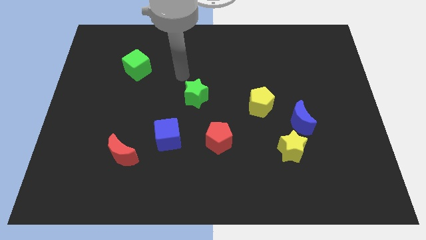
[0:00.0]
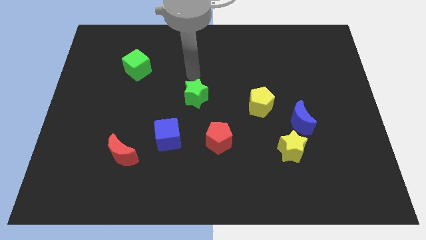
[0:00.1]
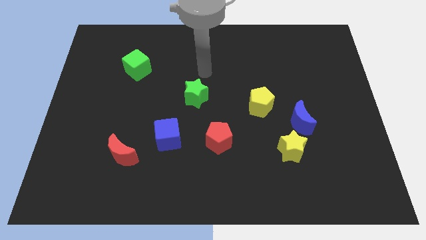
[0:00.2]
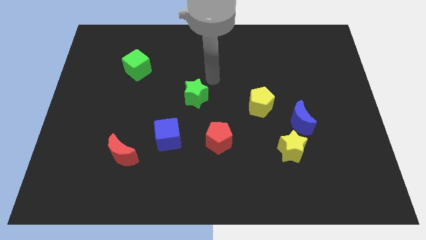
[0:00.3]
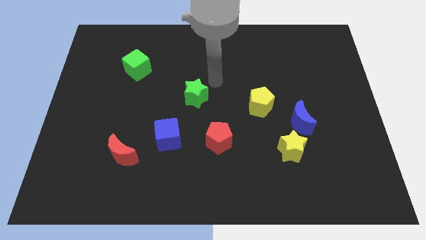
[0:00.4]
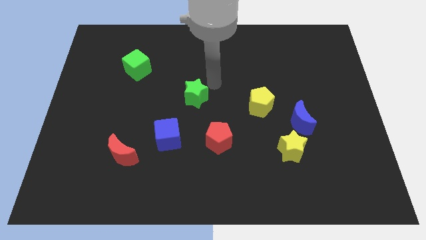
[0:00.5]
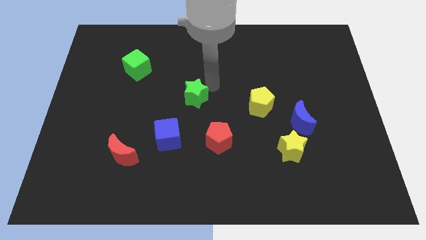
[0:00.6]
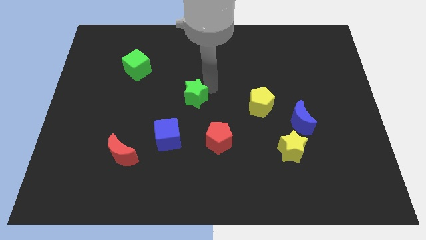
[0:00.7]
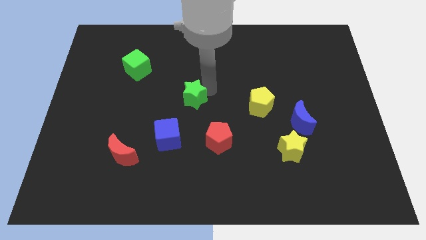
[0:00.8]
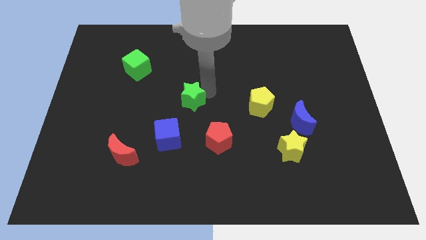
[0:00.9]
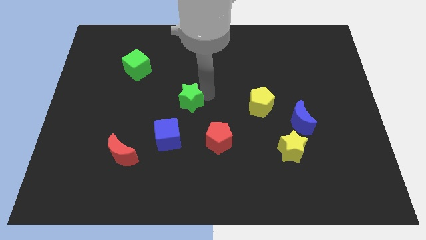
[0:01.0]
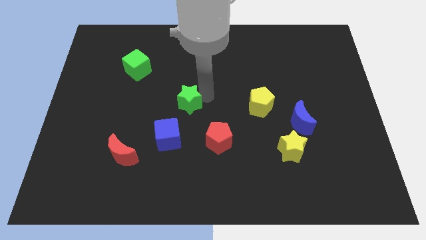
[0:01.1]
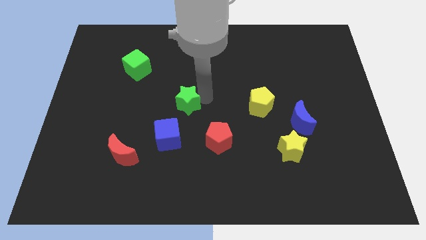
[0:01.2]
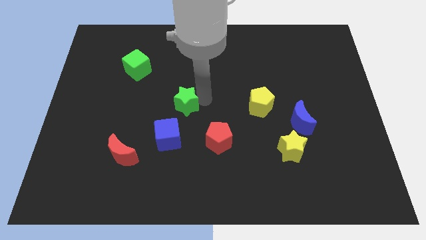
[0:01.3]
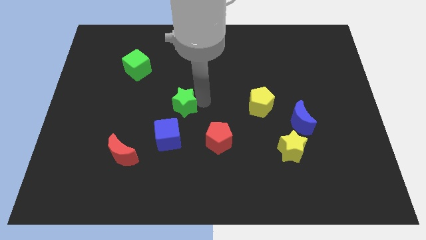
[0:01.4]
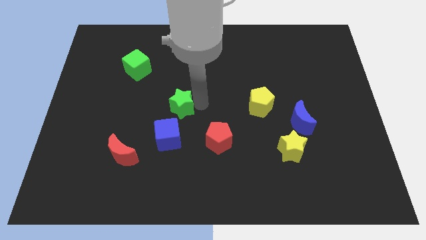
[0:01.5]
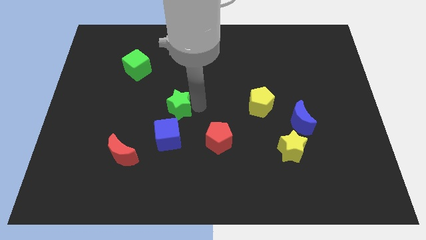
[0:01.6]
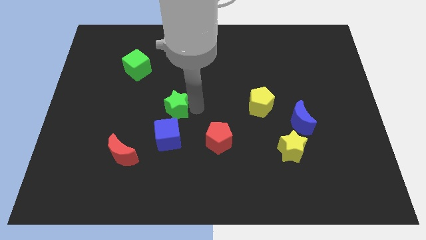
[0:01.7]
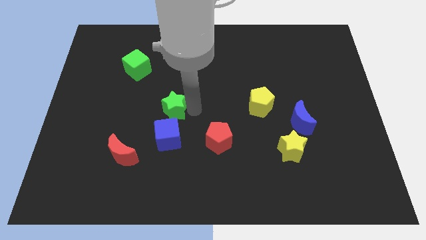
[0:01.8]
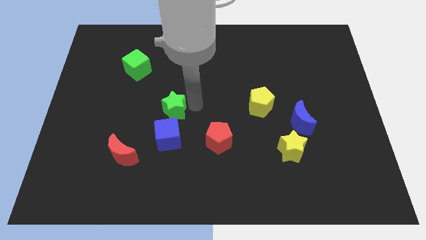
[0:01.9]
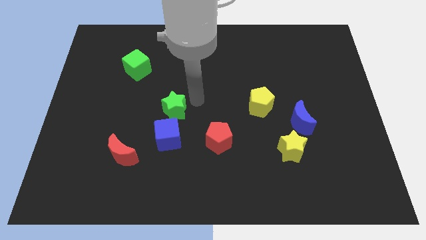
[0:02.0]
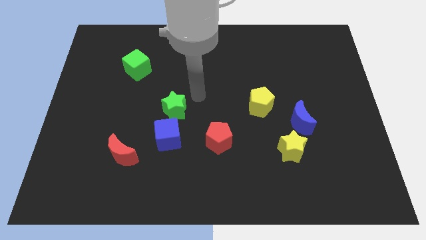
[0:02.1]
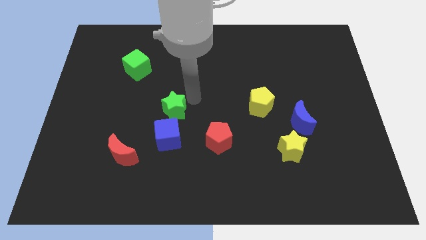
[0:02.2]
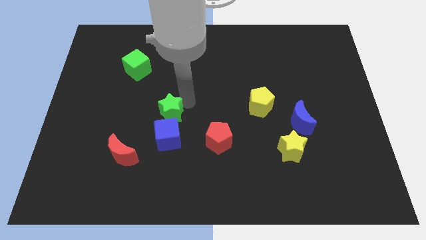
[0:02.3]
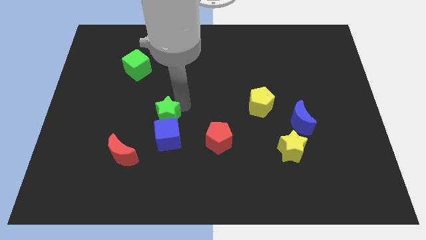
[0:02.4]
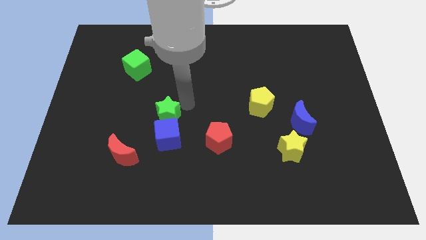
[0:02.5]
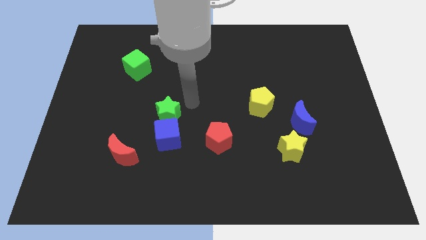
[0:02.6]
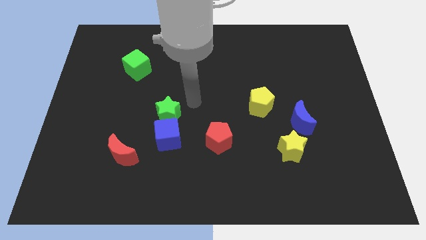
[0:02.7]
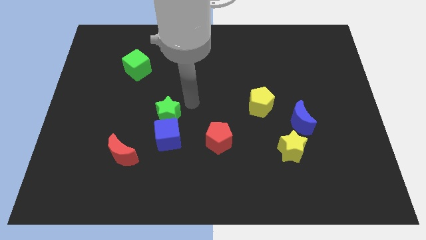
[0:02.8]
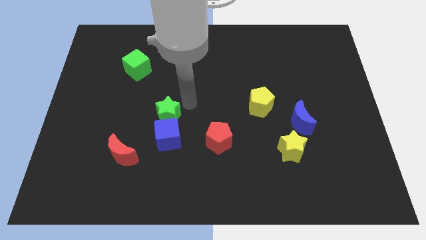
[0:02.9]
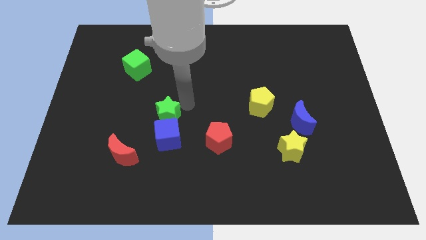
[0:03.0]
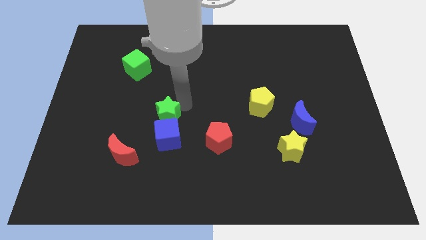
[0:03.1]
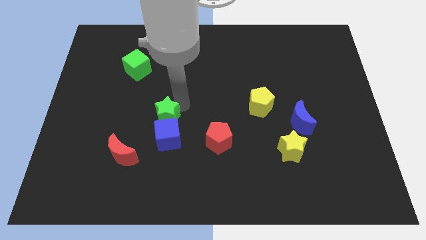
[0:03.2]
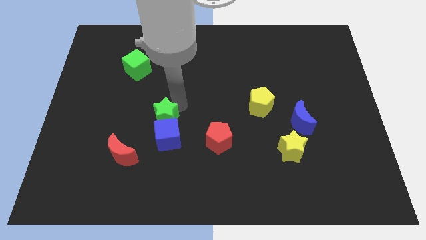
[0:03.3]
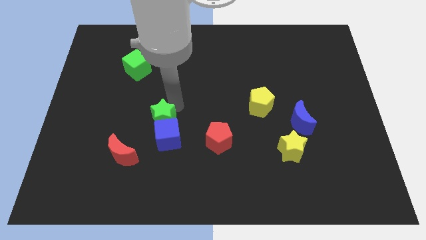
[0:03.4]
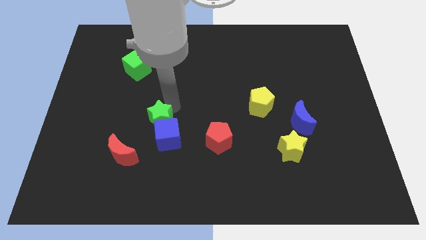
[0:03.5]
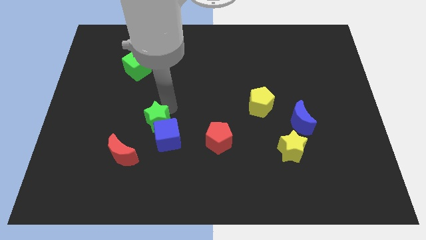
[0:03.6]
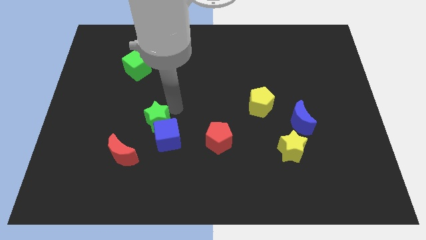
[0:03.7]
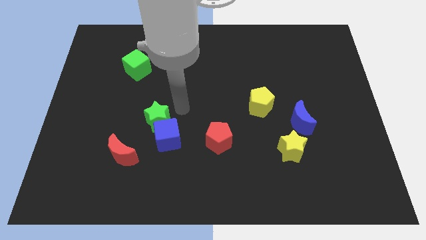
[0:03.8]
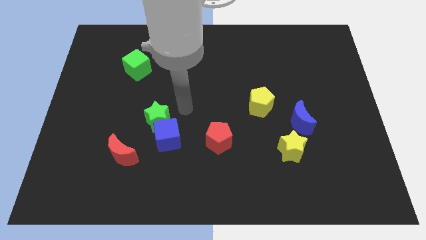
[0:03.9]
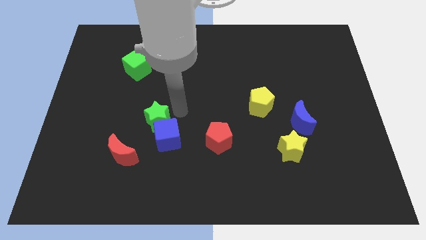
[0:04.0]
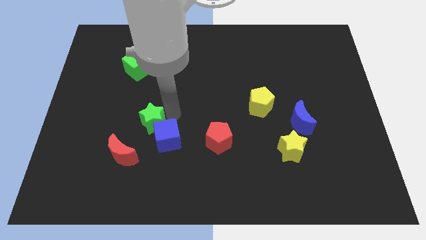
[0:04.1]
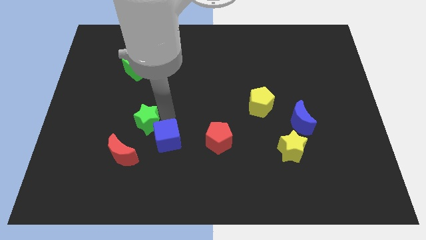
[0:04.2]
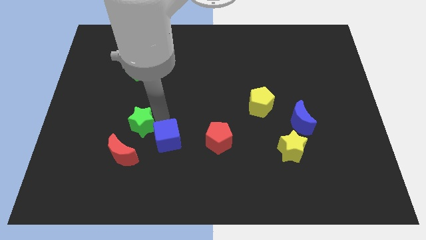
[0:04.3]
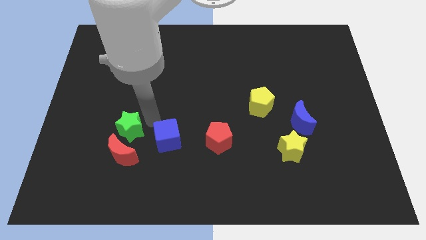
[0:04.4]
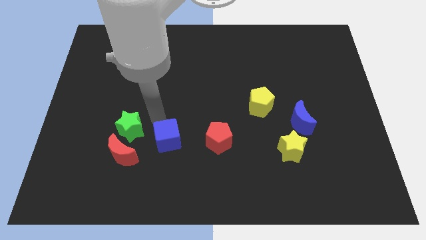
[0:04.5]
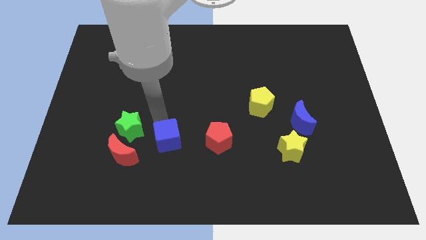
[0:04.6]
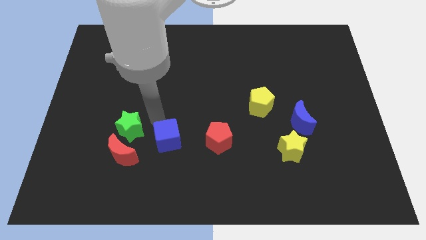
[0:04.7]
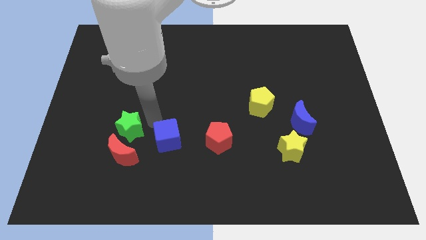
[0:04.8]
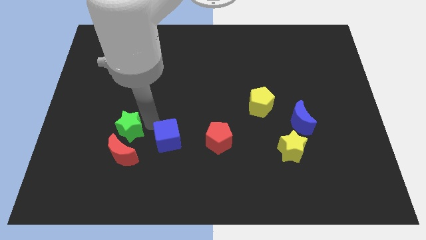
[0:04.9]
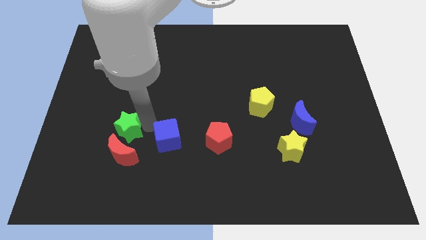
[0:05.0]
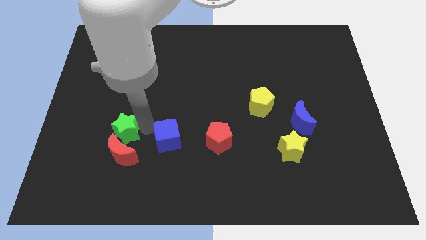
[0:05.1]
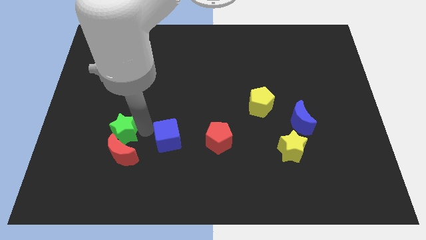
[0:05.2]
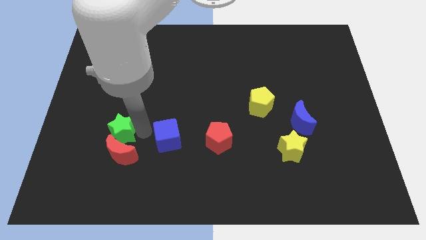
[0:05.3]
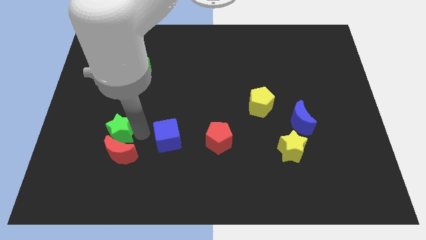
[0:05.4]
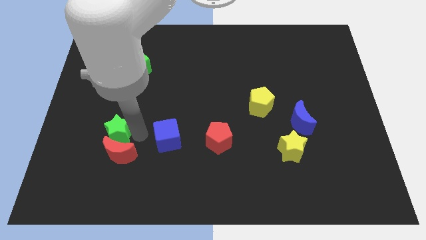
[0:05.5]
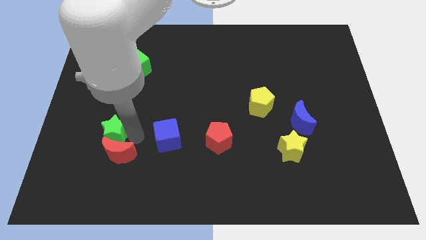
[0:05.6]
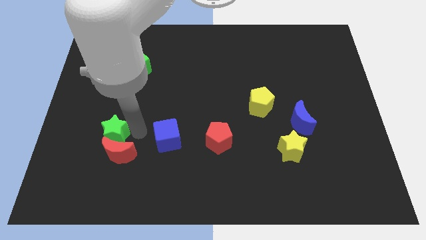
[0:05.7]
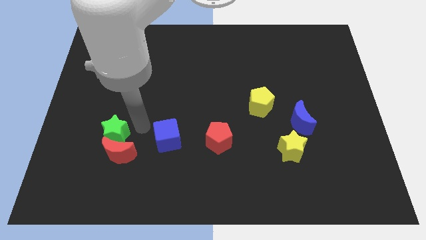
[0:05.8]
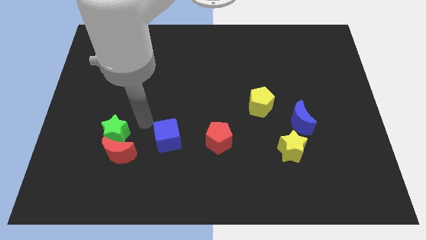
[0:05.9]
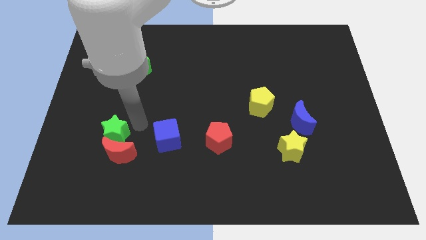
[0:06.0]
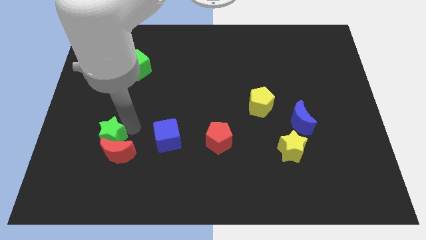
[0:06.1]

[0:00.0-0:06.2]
slide the green star down and left

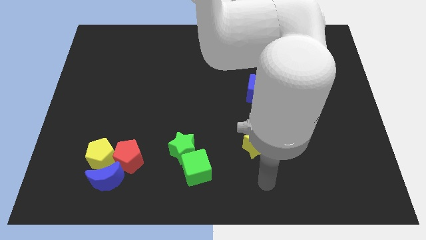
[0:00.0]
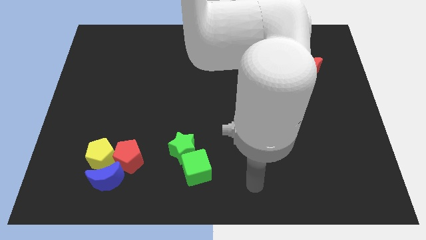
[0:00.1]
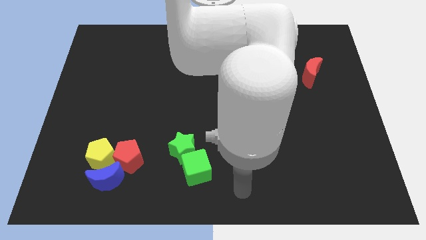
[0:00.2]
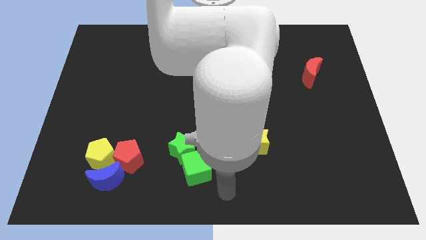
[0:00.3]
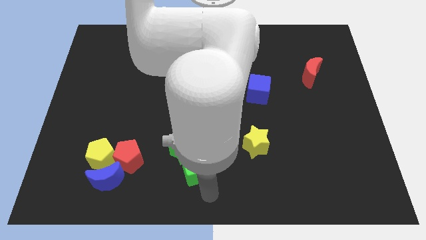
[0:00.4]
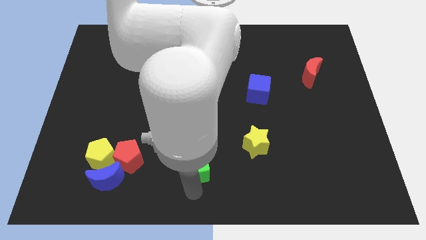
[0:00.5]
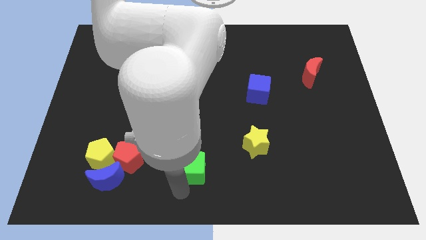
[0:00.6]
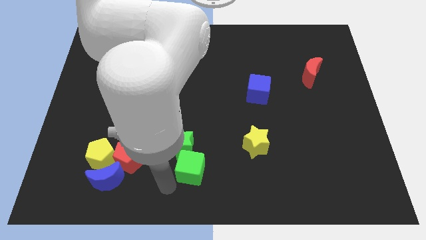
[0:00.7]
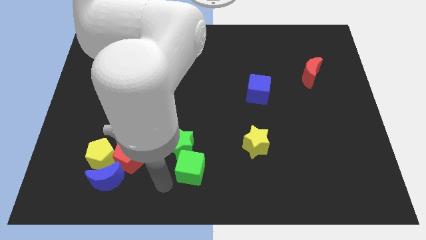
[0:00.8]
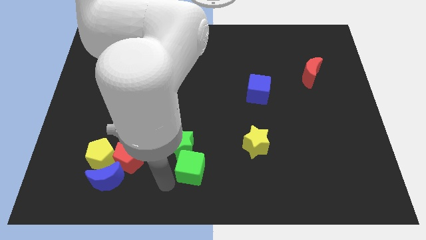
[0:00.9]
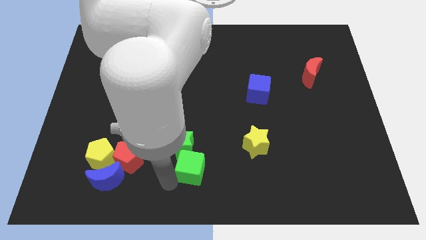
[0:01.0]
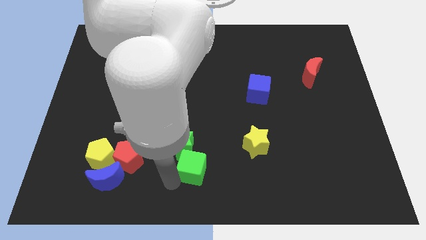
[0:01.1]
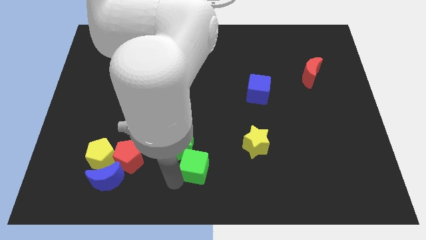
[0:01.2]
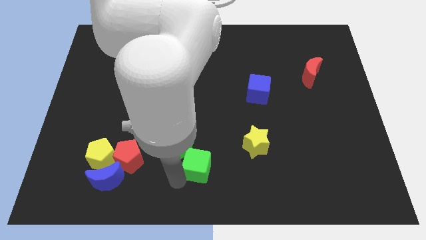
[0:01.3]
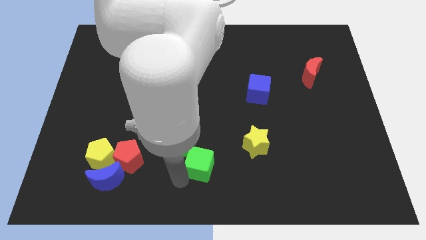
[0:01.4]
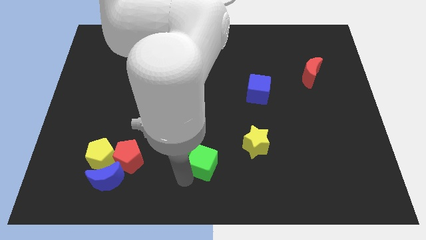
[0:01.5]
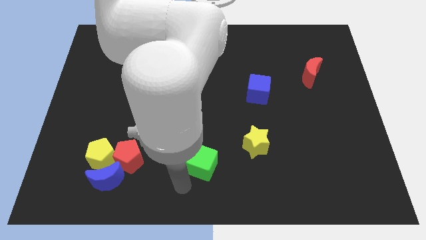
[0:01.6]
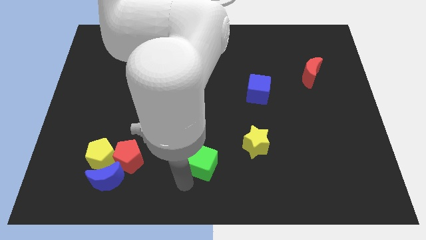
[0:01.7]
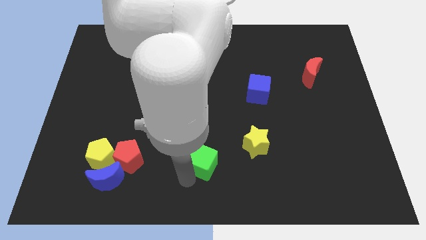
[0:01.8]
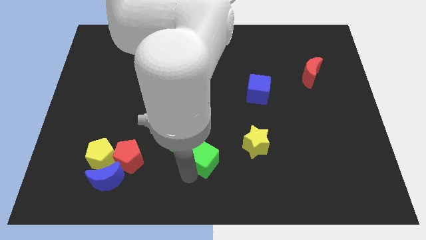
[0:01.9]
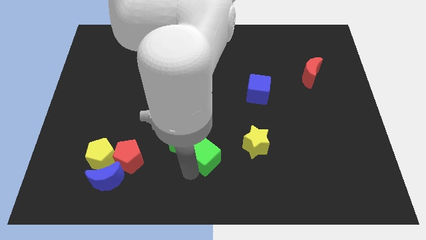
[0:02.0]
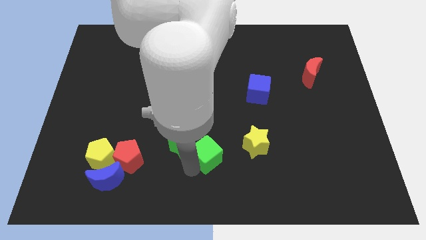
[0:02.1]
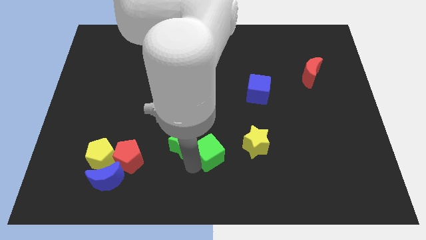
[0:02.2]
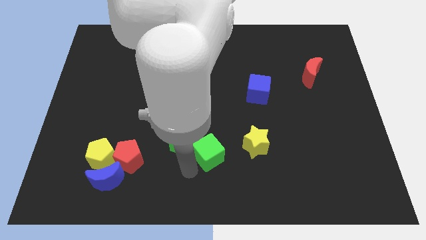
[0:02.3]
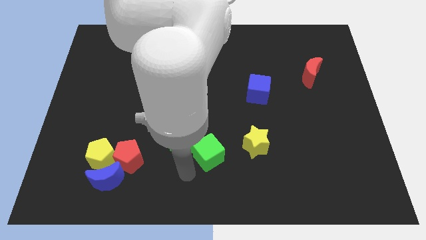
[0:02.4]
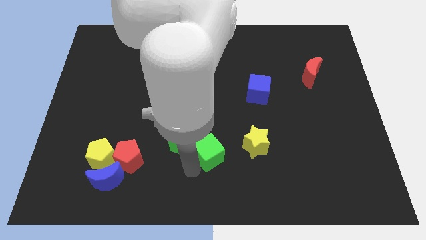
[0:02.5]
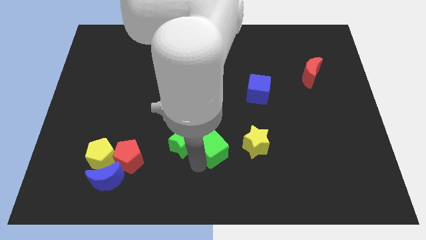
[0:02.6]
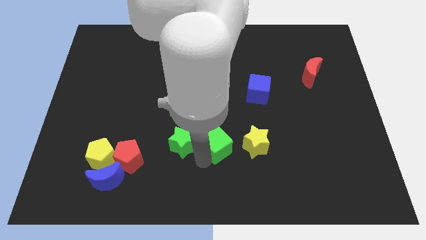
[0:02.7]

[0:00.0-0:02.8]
slide the green cube somewhat upwards and to the right diagonally
